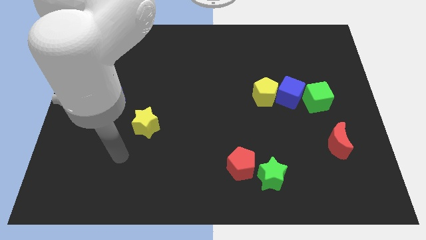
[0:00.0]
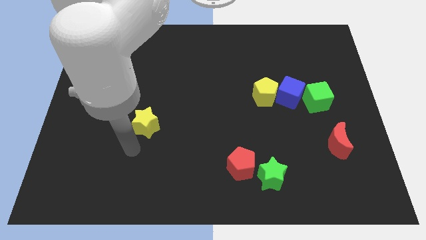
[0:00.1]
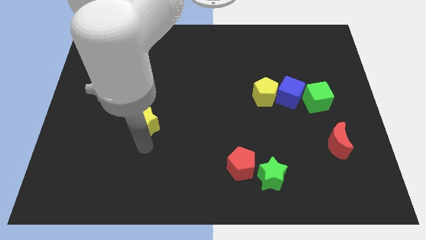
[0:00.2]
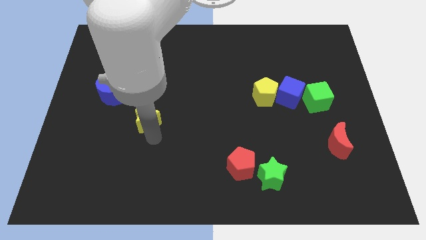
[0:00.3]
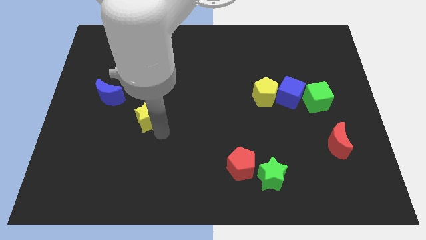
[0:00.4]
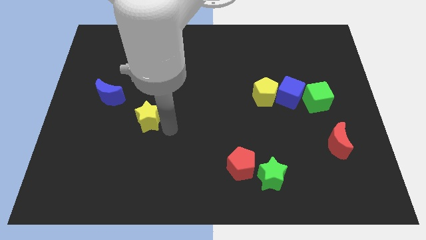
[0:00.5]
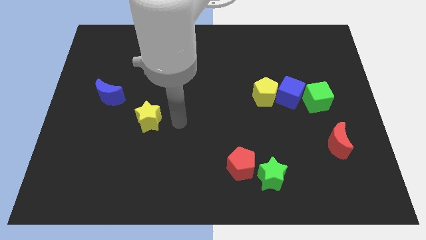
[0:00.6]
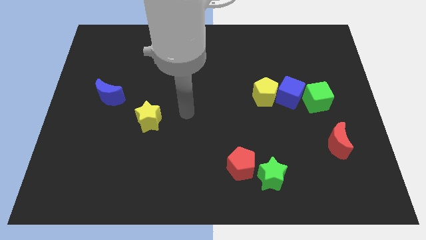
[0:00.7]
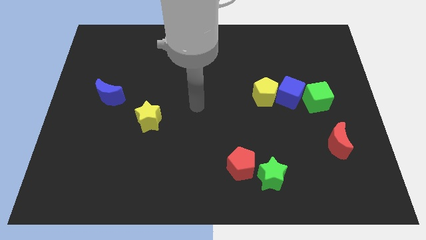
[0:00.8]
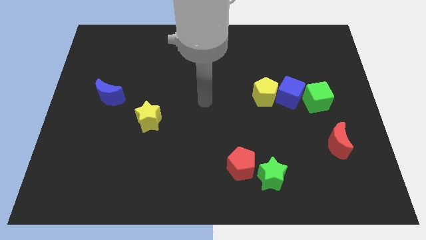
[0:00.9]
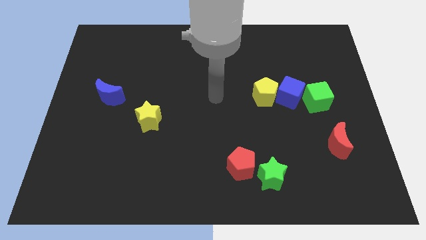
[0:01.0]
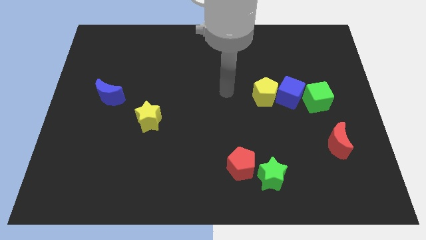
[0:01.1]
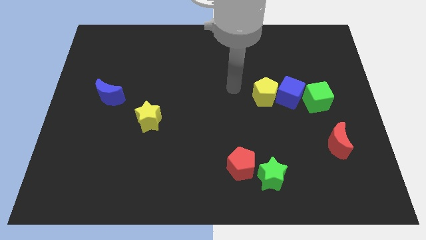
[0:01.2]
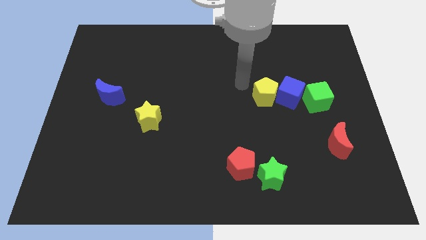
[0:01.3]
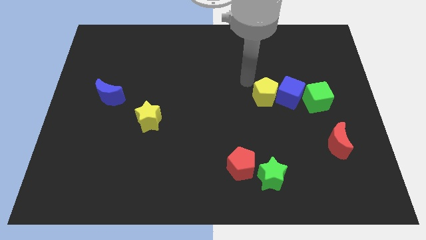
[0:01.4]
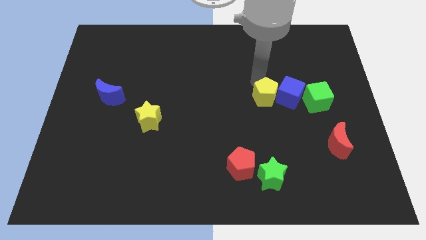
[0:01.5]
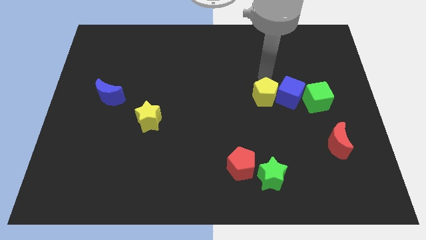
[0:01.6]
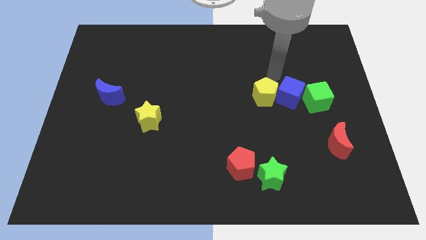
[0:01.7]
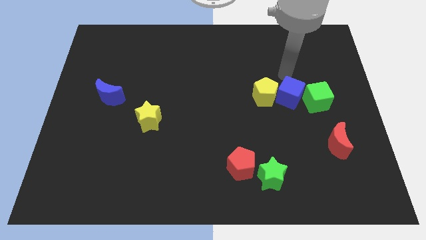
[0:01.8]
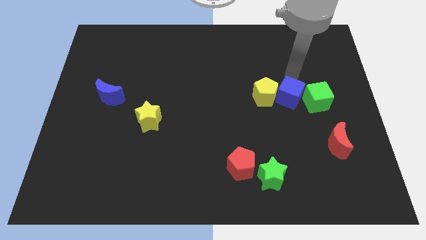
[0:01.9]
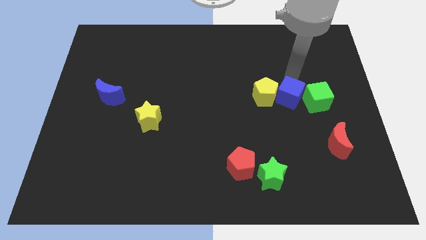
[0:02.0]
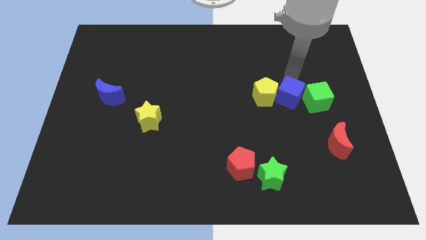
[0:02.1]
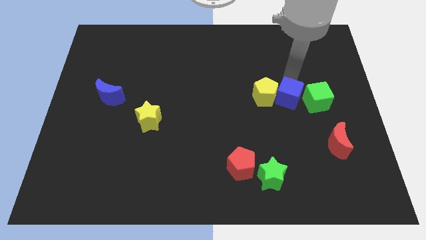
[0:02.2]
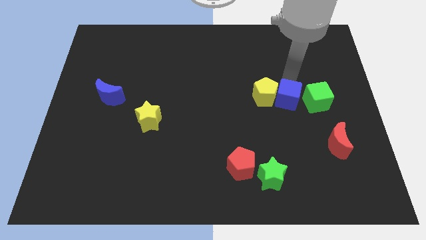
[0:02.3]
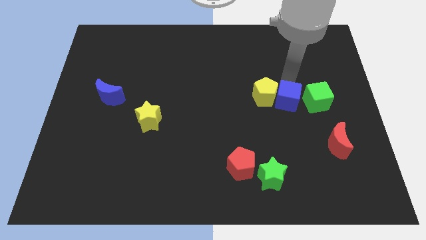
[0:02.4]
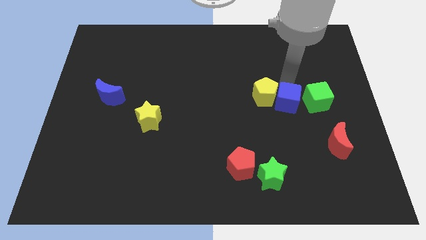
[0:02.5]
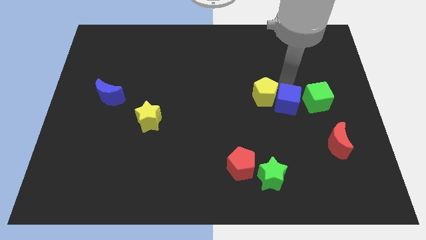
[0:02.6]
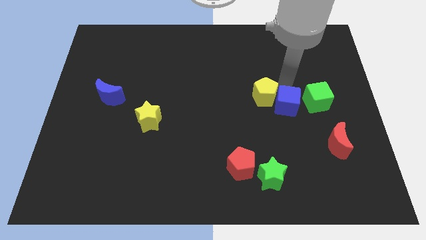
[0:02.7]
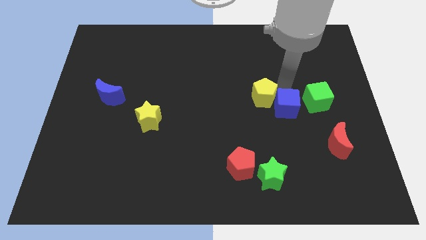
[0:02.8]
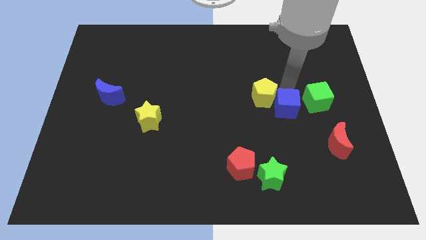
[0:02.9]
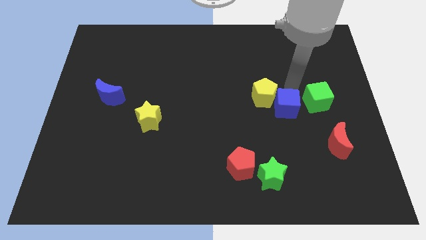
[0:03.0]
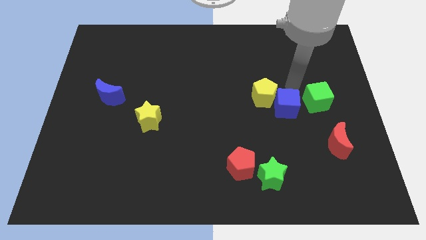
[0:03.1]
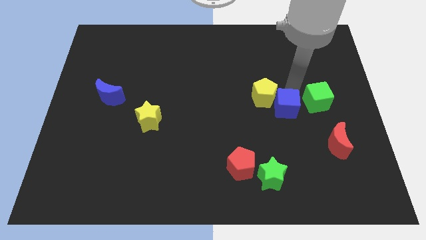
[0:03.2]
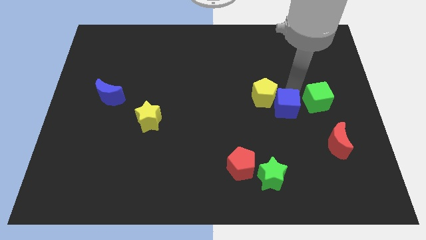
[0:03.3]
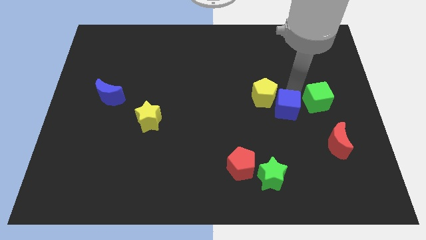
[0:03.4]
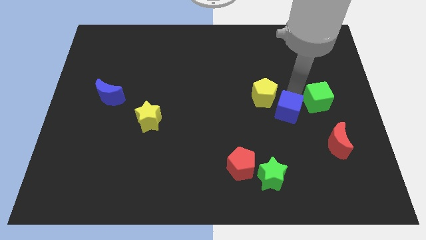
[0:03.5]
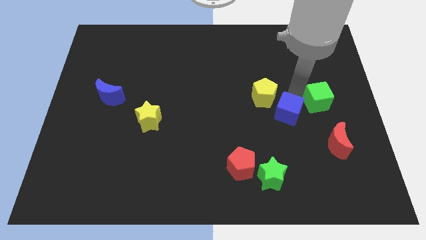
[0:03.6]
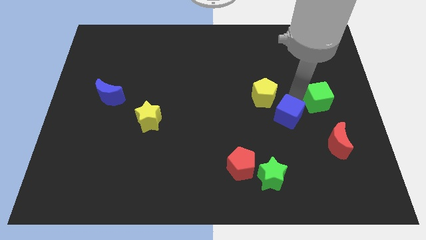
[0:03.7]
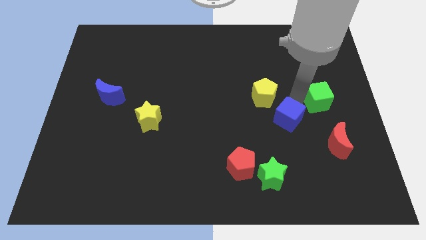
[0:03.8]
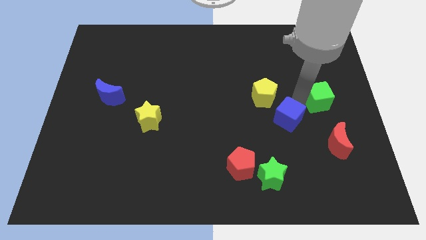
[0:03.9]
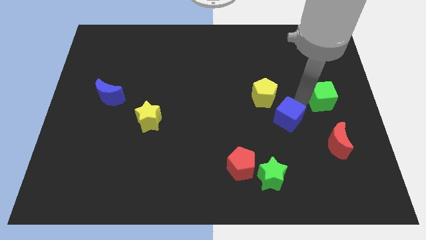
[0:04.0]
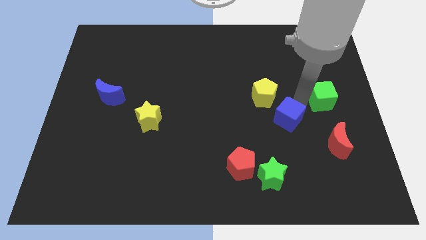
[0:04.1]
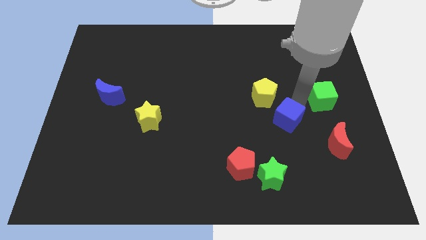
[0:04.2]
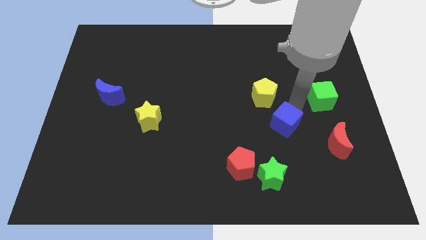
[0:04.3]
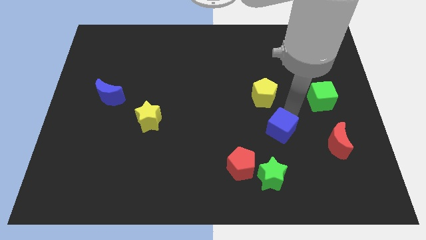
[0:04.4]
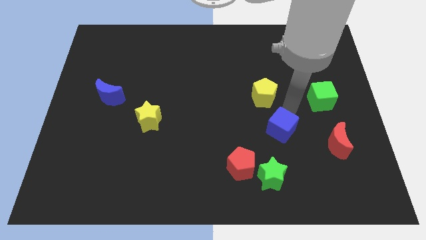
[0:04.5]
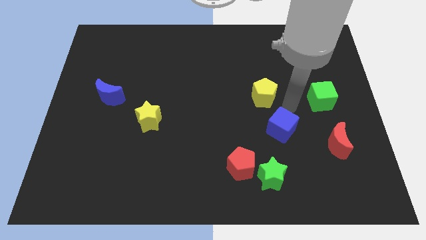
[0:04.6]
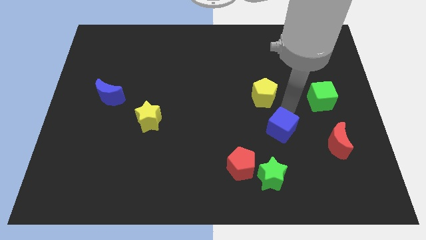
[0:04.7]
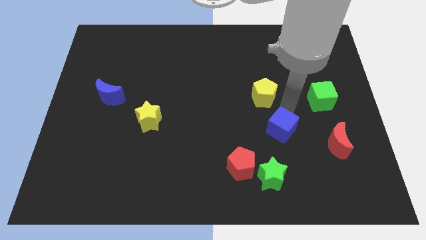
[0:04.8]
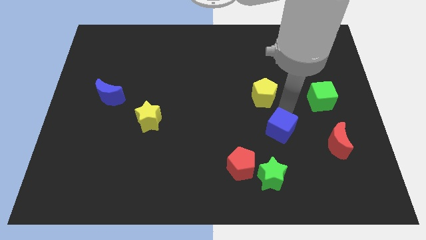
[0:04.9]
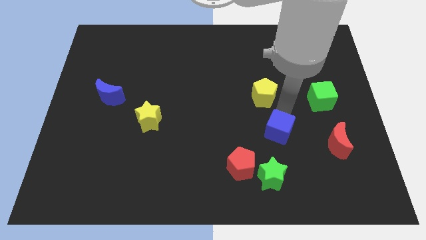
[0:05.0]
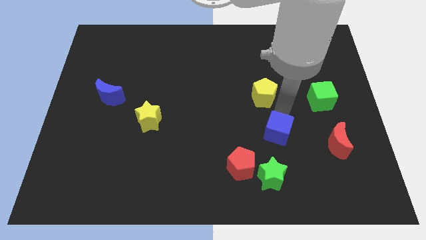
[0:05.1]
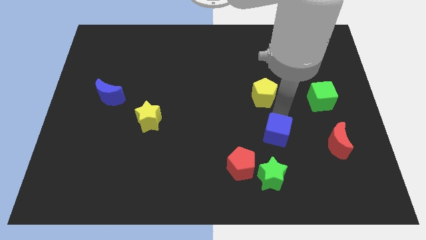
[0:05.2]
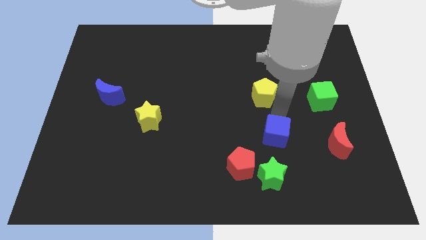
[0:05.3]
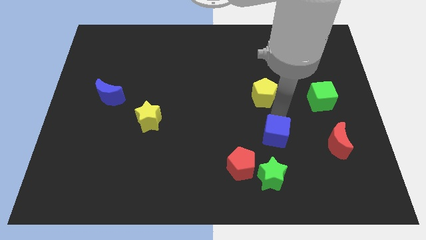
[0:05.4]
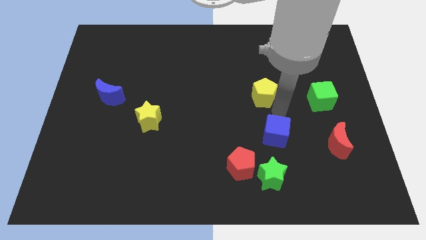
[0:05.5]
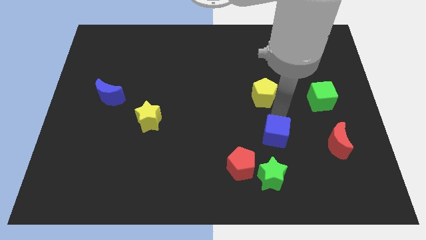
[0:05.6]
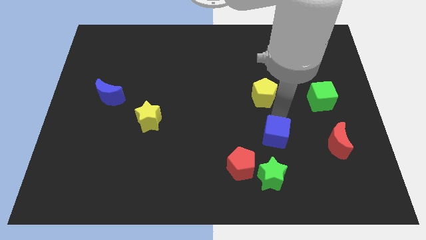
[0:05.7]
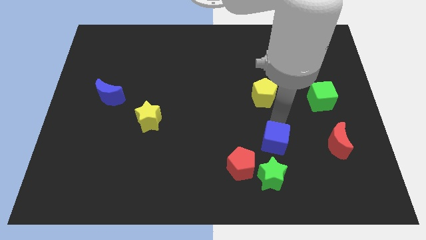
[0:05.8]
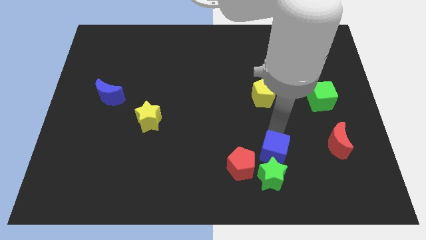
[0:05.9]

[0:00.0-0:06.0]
slide the blue cube next to the green star

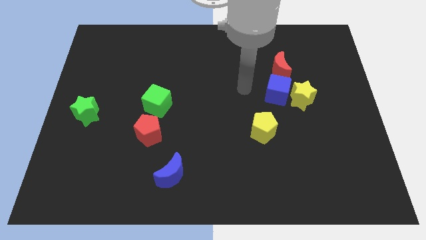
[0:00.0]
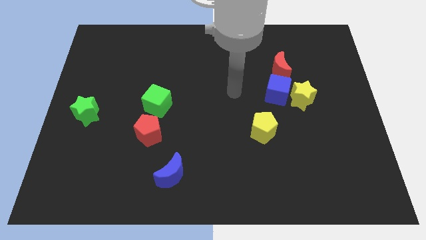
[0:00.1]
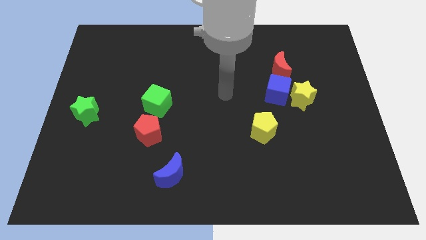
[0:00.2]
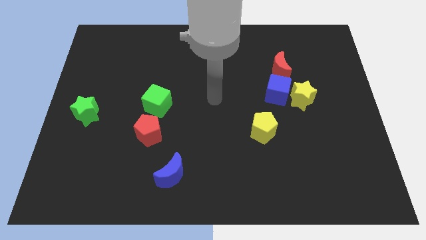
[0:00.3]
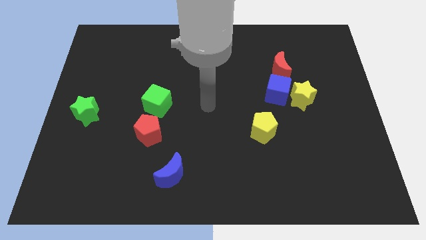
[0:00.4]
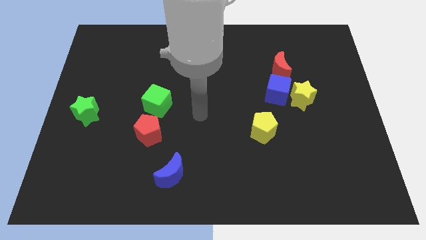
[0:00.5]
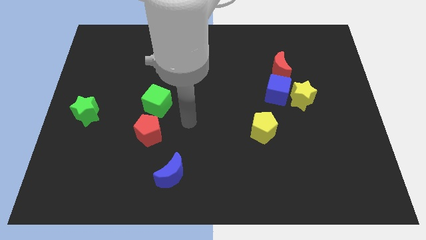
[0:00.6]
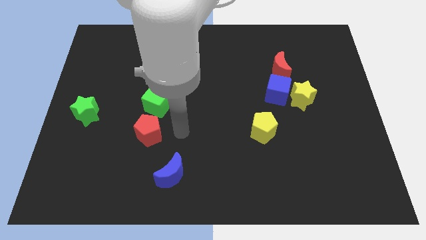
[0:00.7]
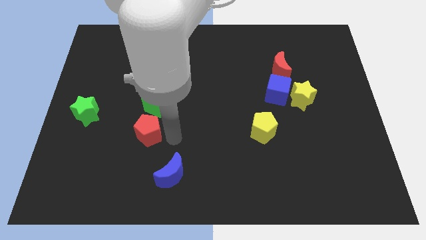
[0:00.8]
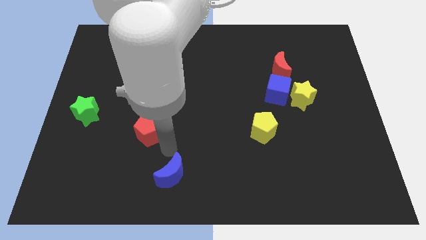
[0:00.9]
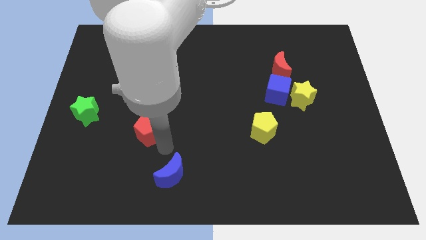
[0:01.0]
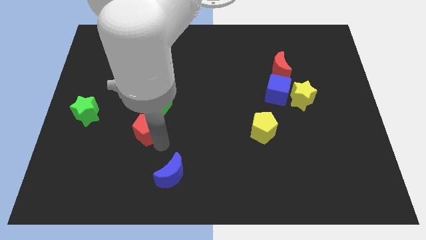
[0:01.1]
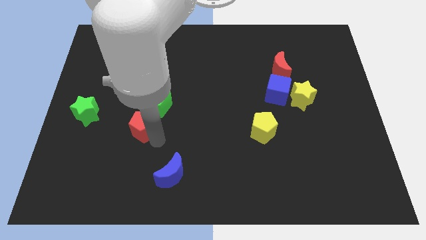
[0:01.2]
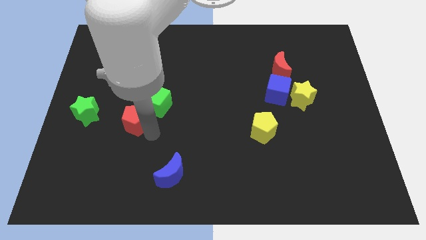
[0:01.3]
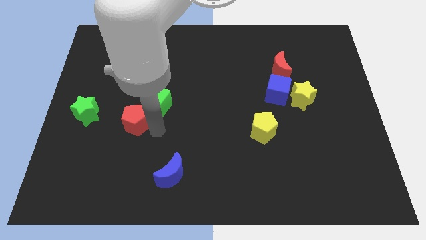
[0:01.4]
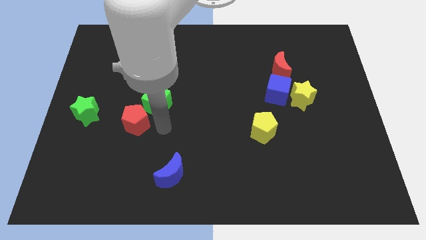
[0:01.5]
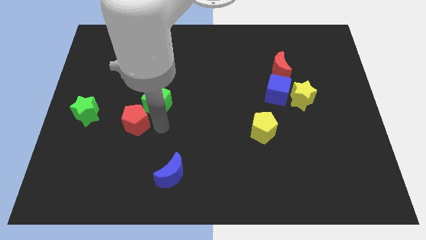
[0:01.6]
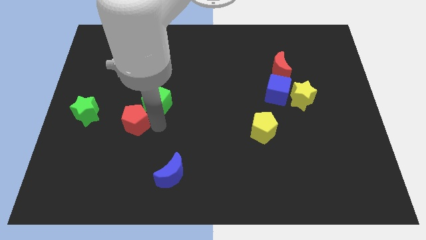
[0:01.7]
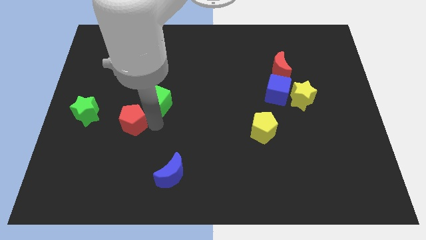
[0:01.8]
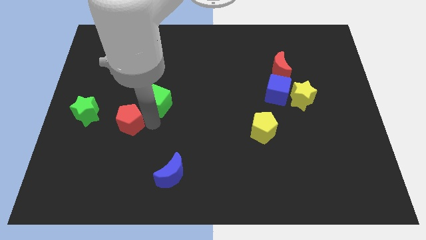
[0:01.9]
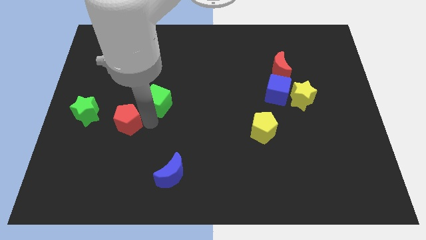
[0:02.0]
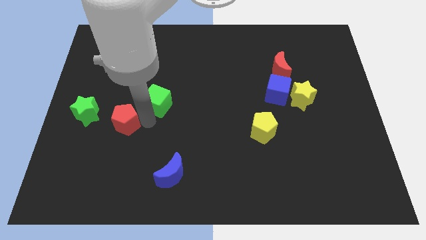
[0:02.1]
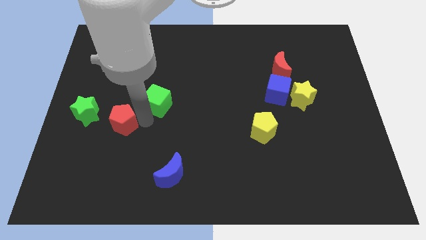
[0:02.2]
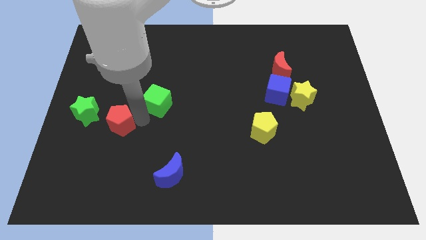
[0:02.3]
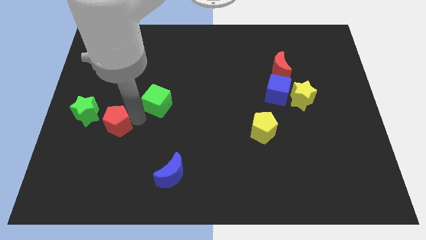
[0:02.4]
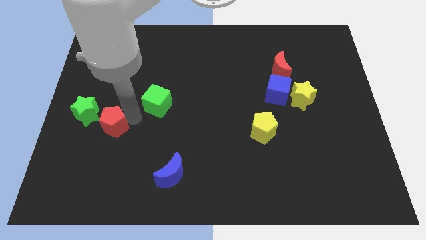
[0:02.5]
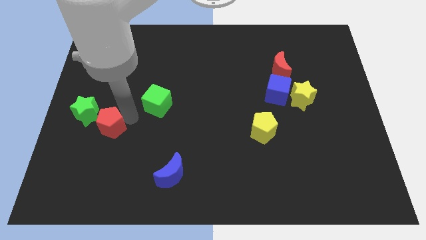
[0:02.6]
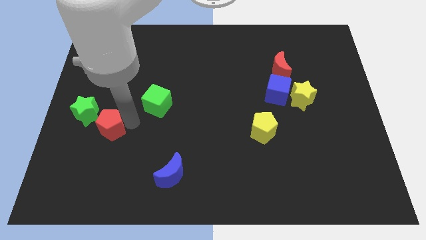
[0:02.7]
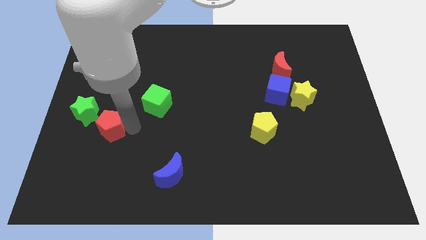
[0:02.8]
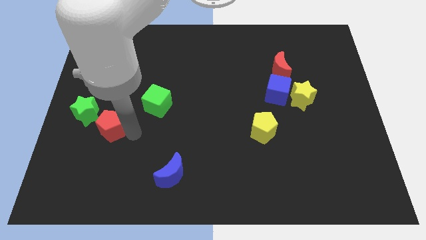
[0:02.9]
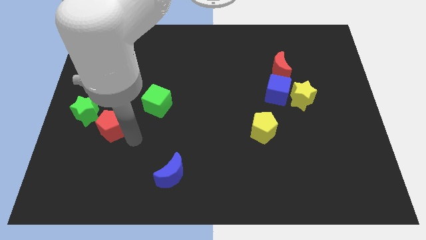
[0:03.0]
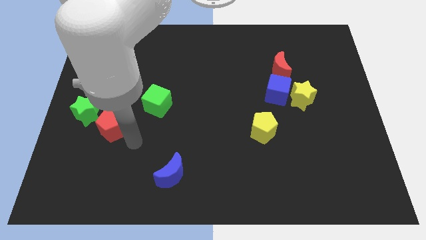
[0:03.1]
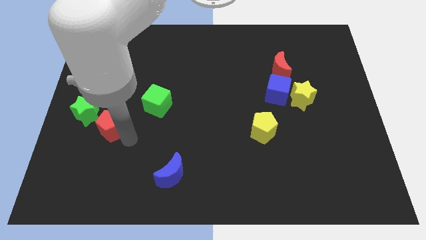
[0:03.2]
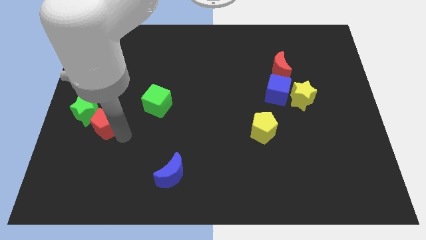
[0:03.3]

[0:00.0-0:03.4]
move the red pentagon close to the green star
